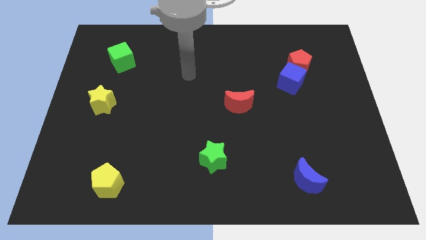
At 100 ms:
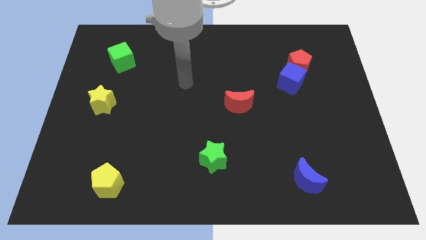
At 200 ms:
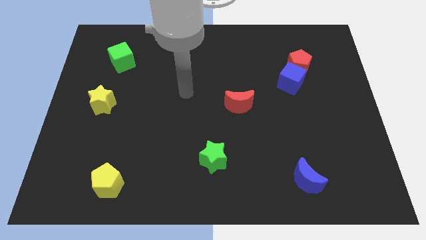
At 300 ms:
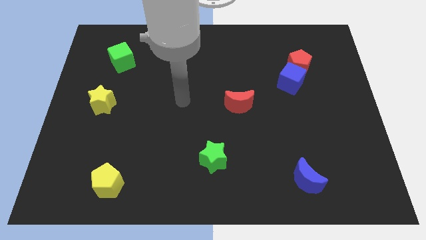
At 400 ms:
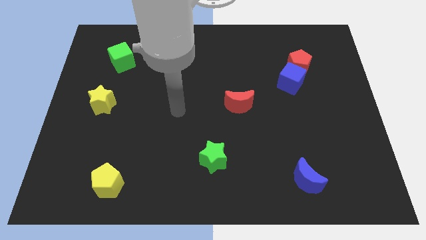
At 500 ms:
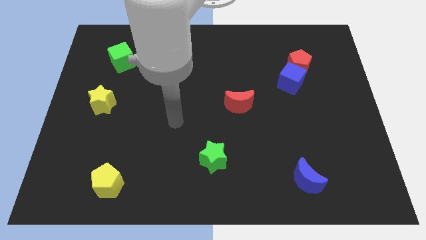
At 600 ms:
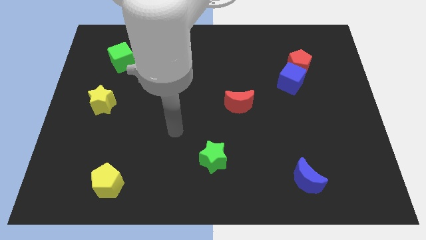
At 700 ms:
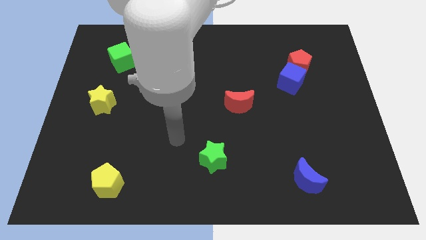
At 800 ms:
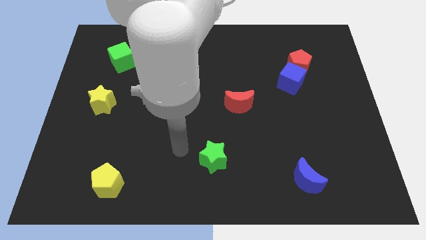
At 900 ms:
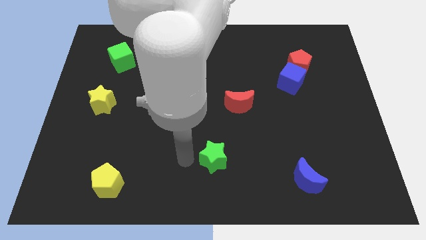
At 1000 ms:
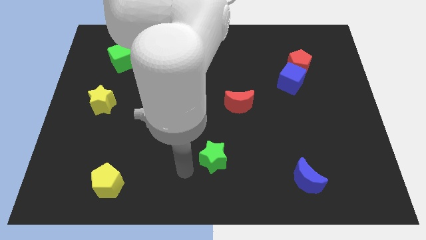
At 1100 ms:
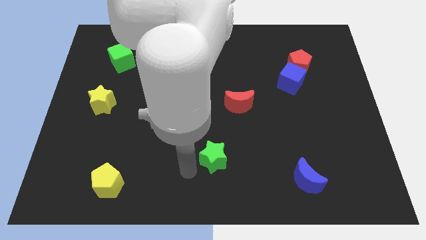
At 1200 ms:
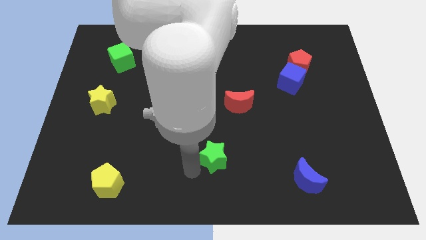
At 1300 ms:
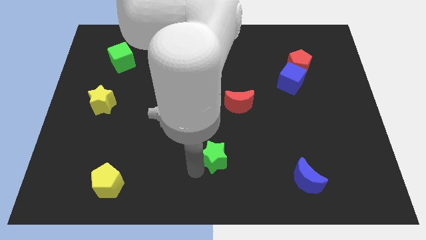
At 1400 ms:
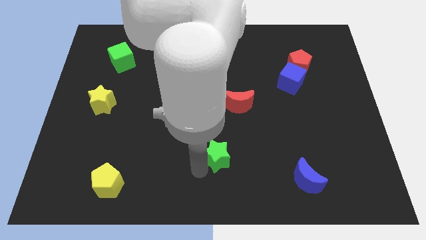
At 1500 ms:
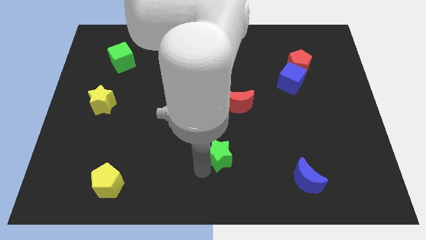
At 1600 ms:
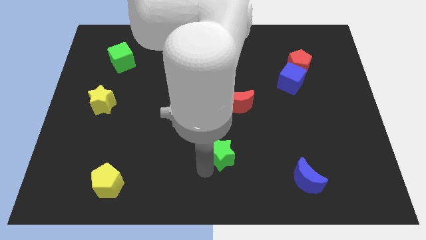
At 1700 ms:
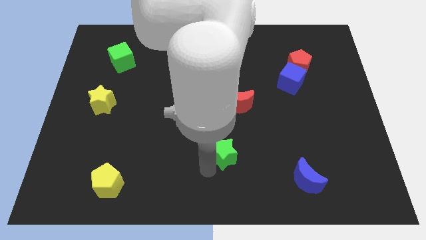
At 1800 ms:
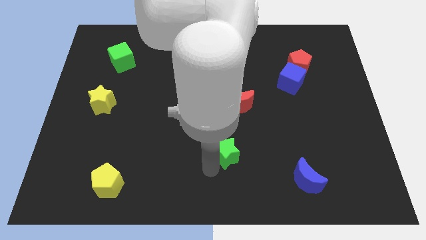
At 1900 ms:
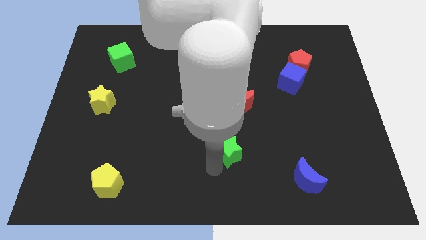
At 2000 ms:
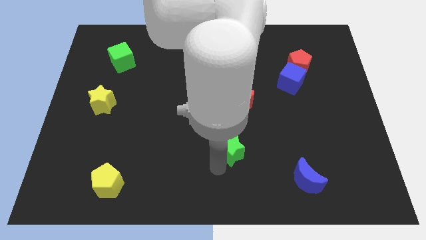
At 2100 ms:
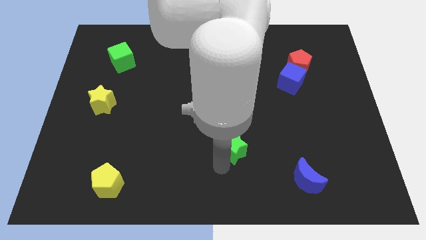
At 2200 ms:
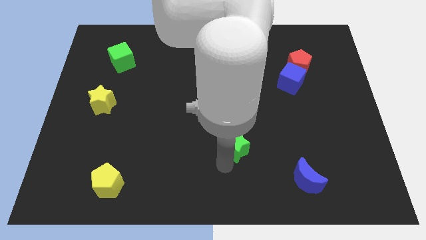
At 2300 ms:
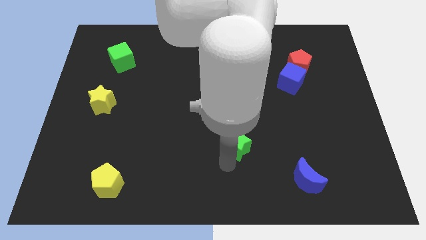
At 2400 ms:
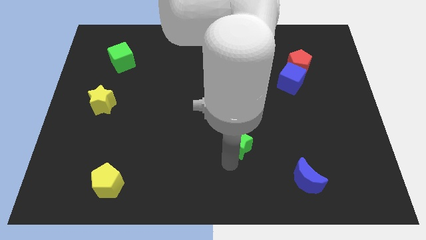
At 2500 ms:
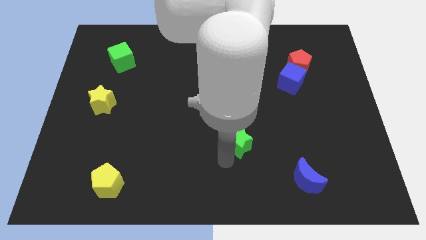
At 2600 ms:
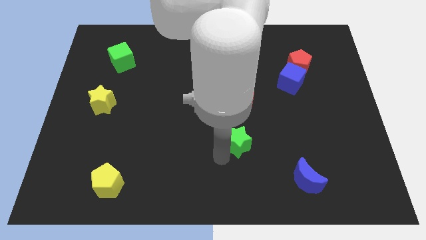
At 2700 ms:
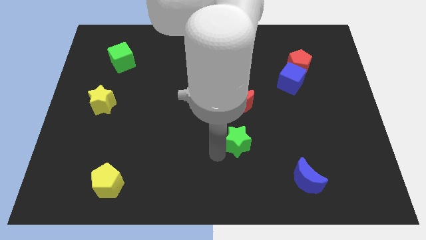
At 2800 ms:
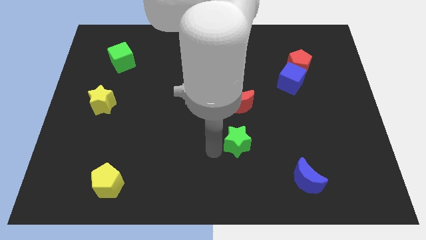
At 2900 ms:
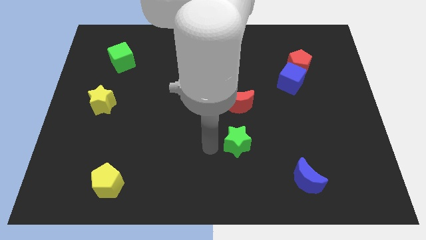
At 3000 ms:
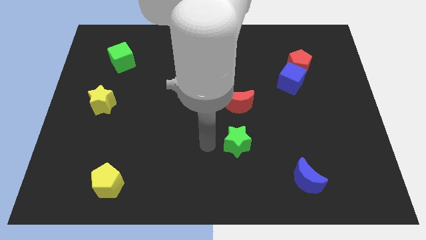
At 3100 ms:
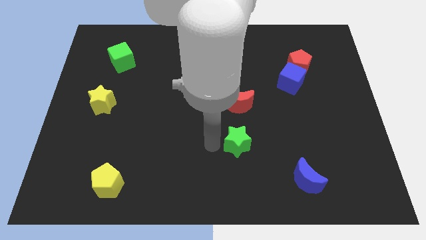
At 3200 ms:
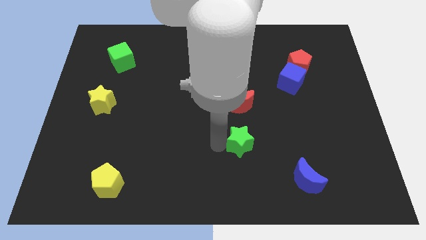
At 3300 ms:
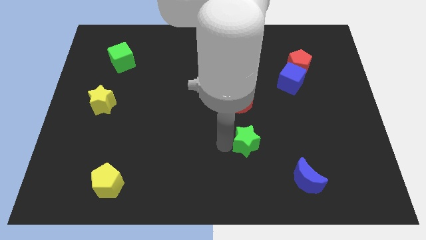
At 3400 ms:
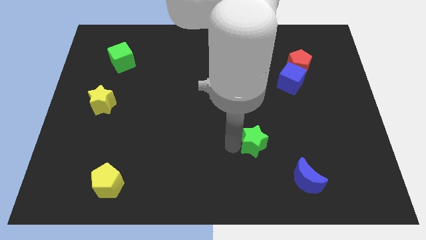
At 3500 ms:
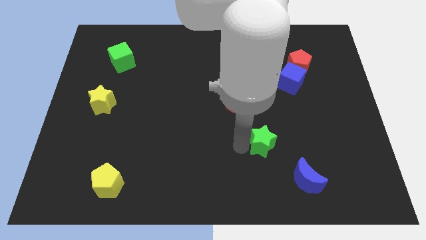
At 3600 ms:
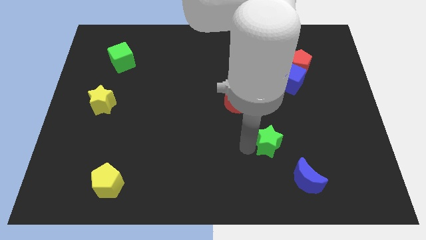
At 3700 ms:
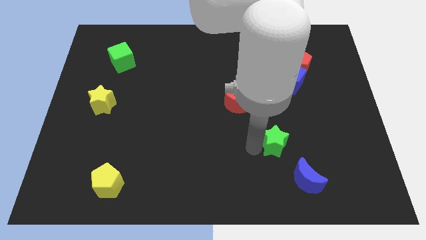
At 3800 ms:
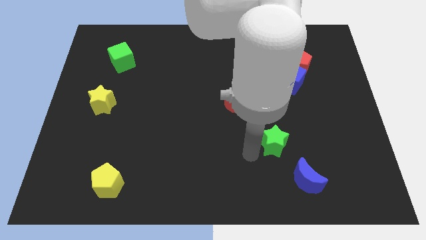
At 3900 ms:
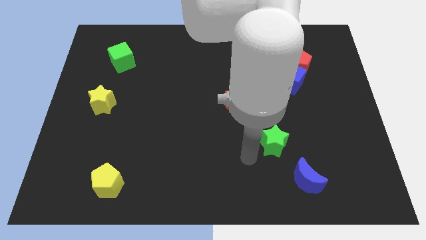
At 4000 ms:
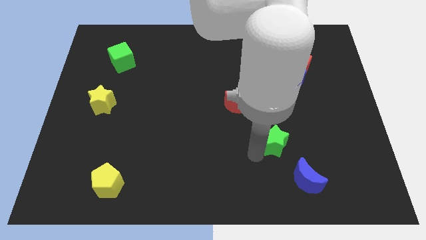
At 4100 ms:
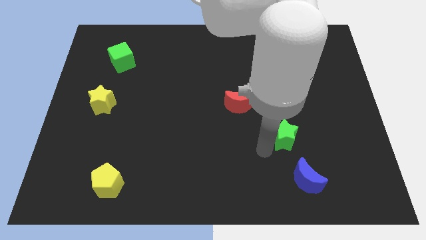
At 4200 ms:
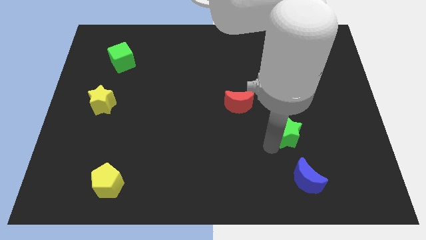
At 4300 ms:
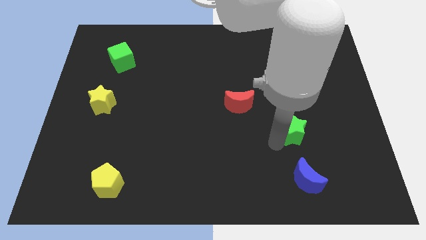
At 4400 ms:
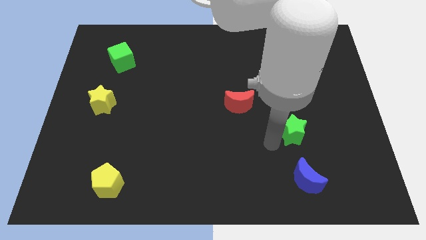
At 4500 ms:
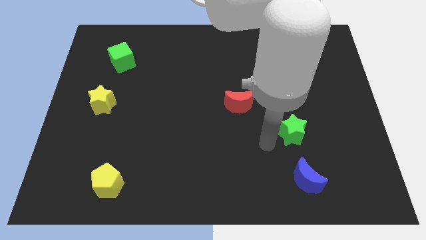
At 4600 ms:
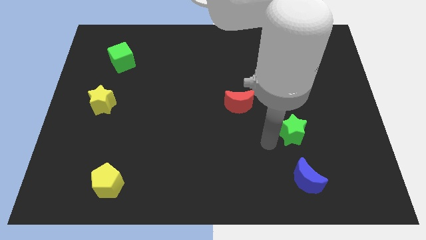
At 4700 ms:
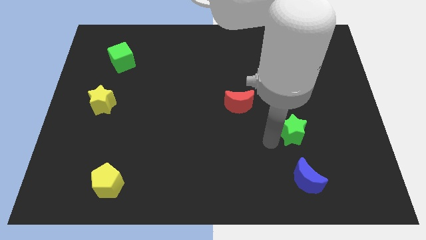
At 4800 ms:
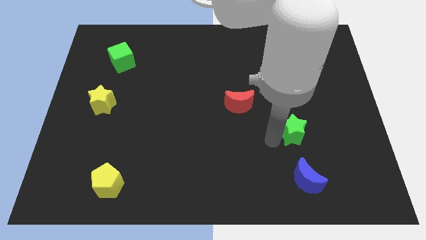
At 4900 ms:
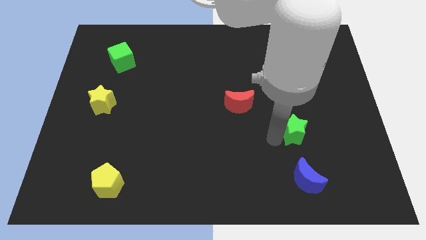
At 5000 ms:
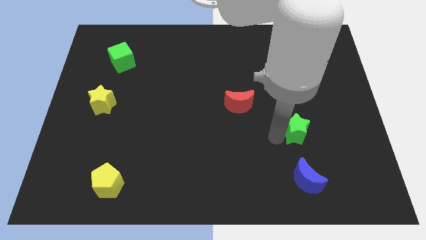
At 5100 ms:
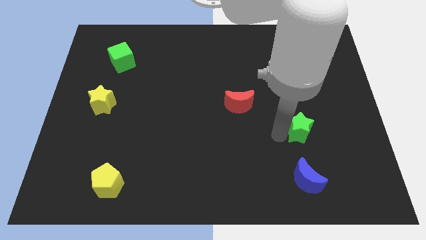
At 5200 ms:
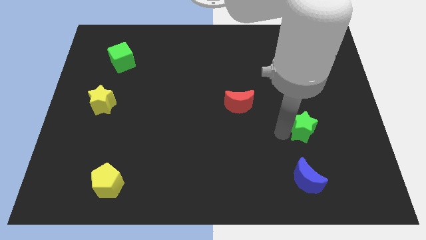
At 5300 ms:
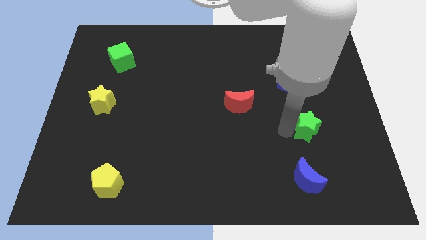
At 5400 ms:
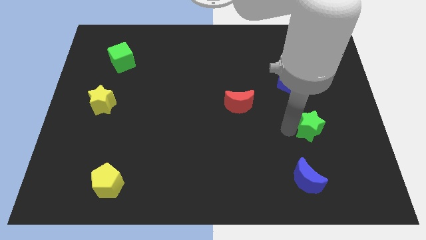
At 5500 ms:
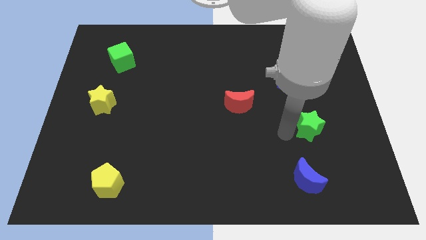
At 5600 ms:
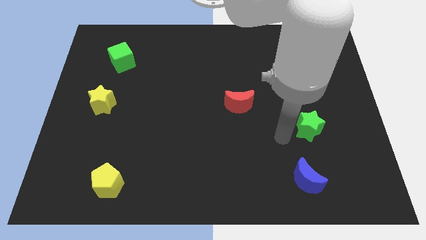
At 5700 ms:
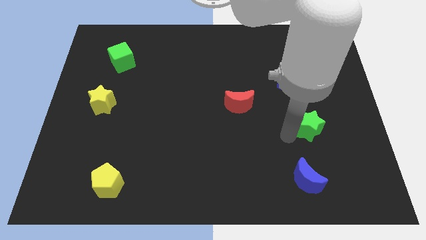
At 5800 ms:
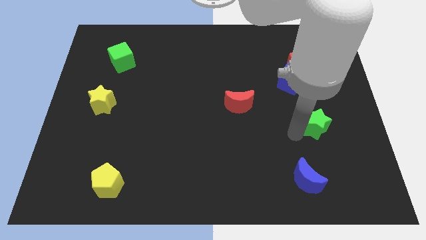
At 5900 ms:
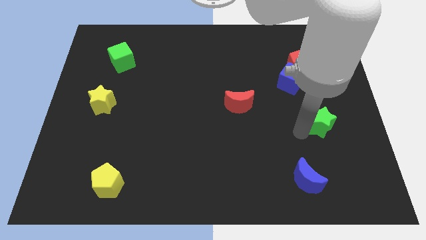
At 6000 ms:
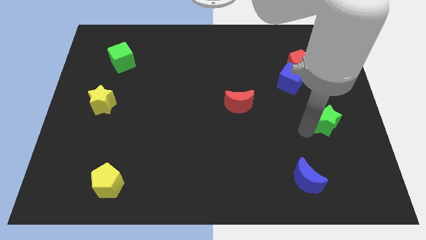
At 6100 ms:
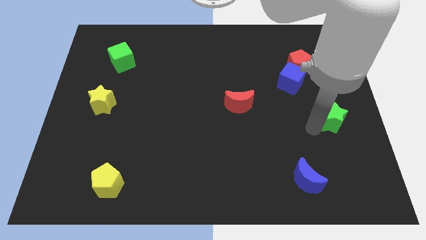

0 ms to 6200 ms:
slide the green star to the right side of the board
